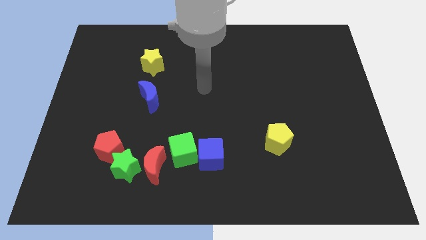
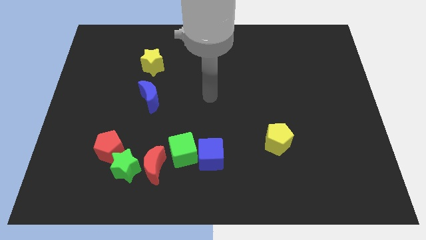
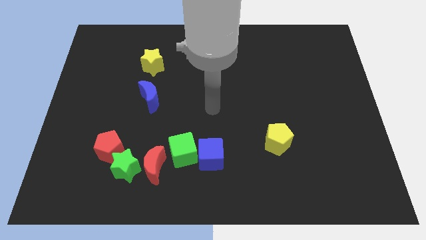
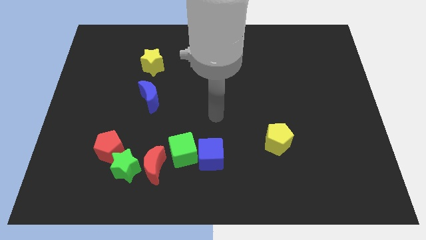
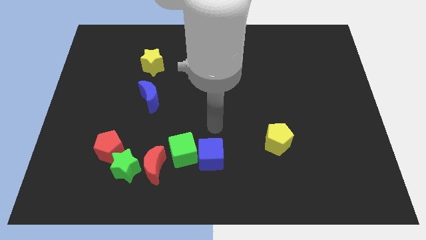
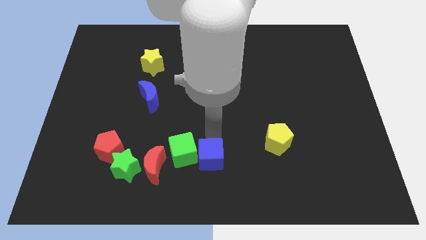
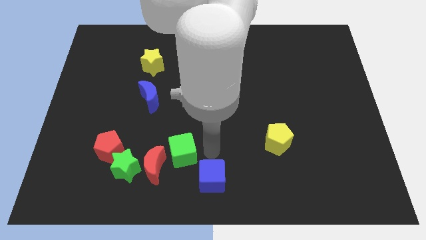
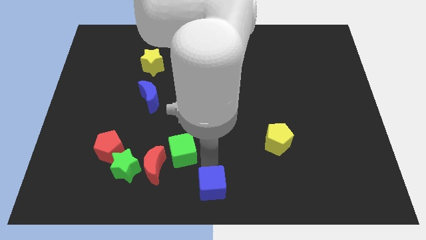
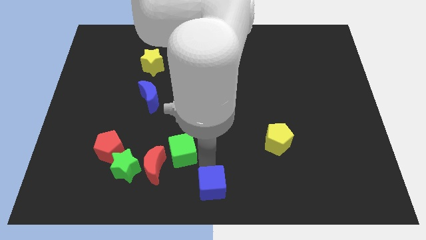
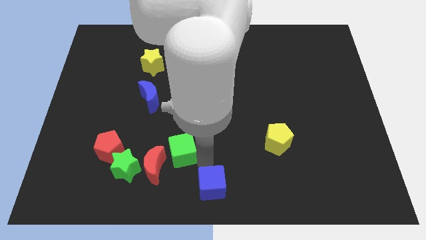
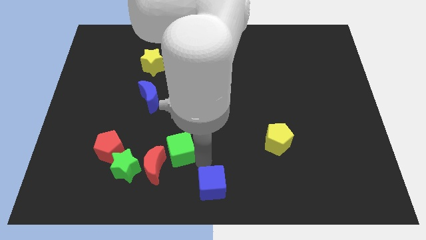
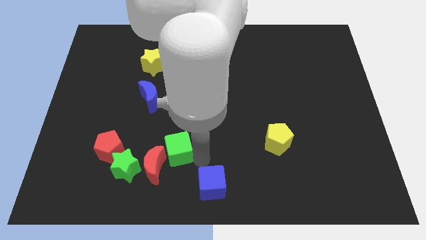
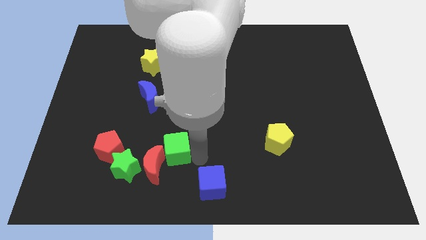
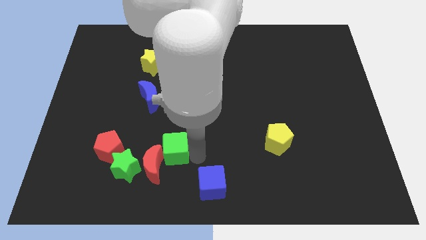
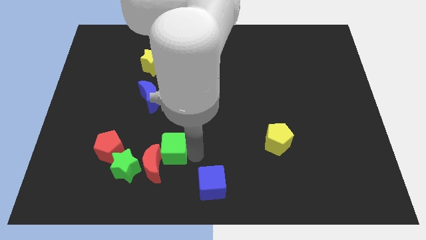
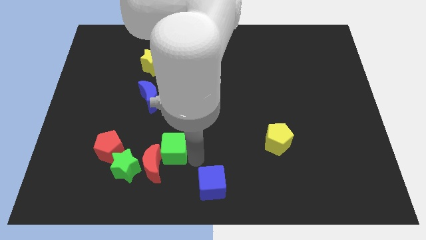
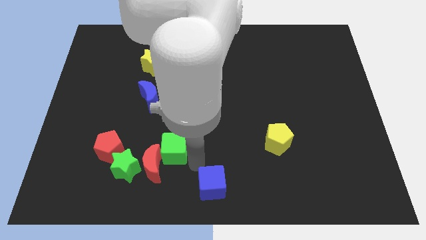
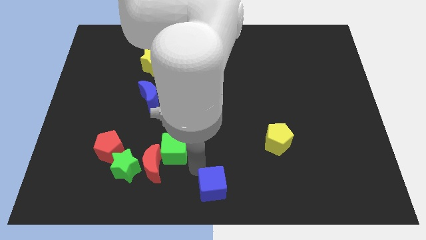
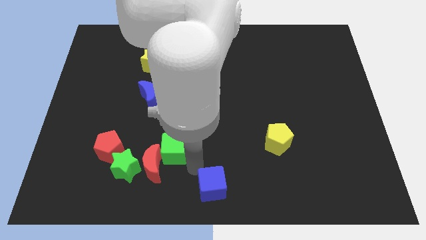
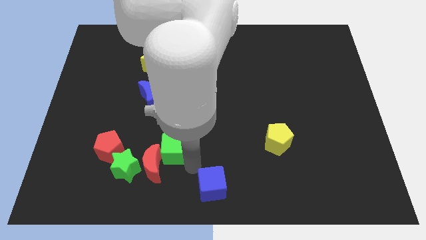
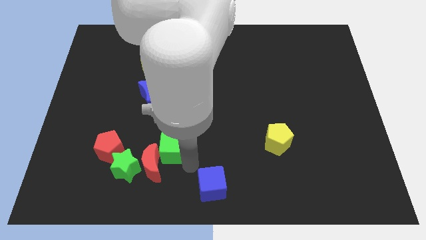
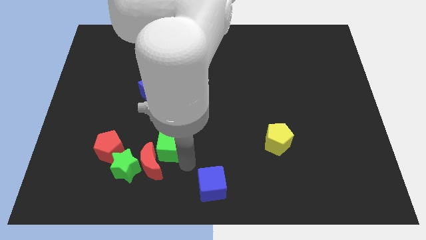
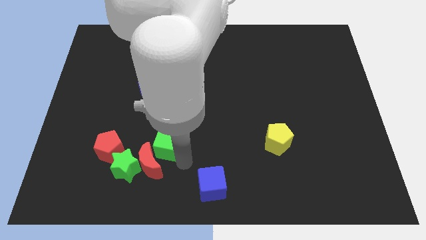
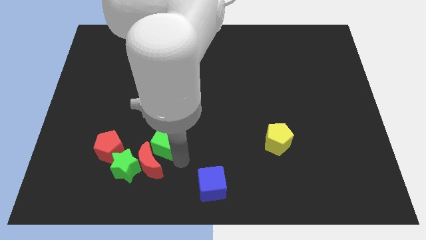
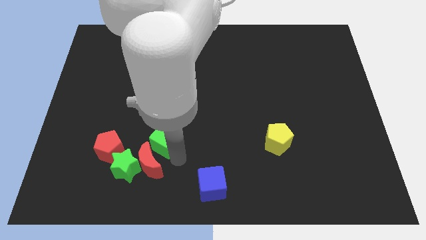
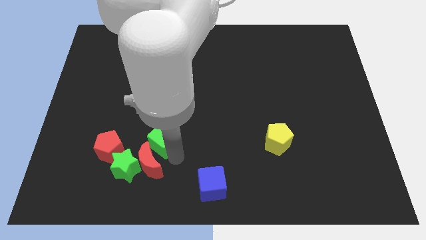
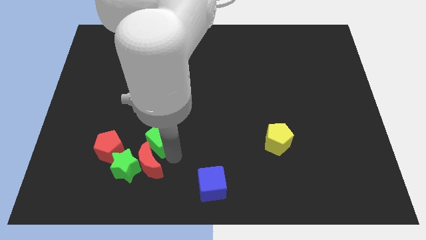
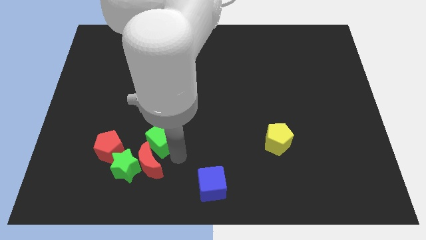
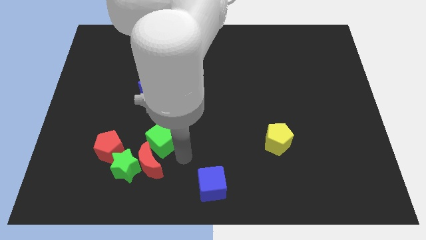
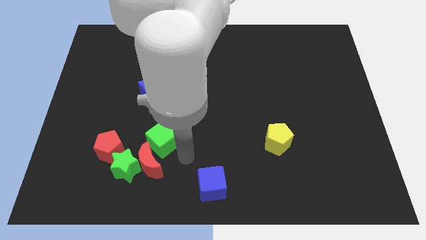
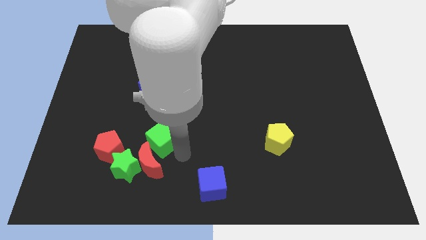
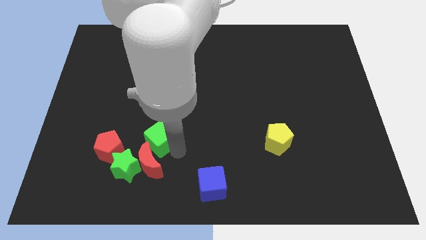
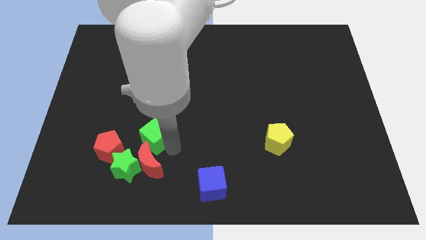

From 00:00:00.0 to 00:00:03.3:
move the green cube a bit diagonally upwards and to the left

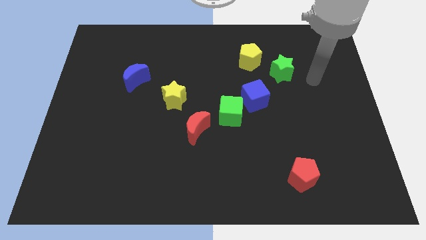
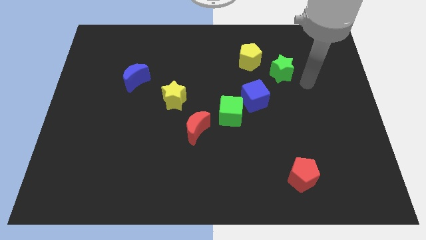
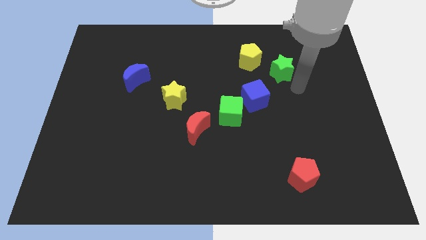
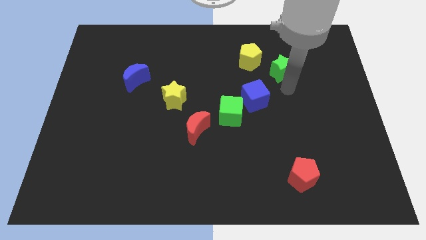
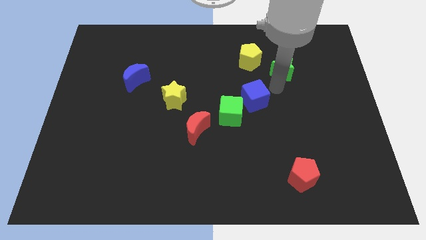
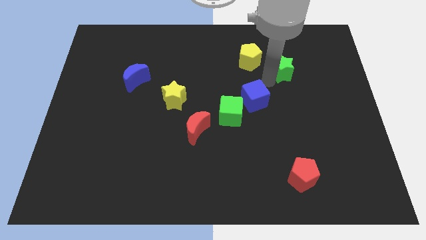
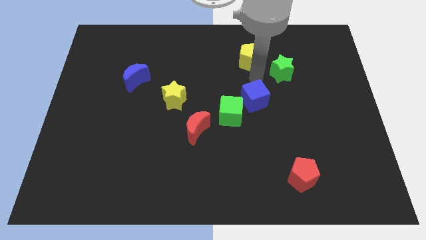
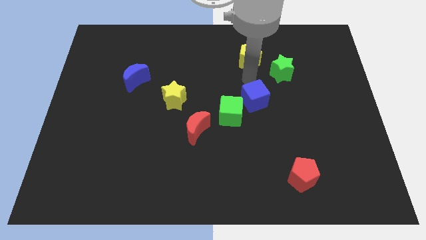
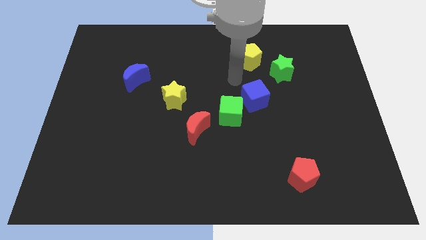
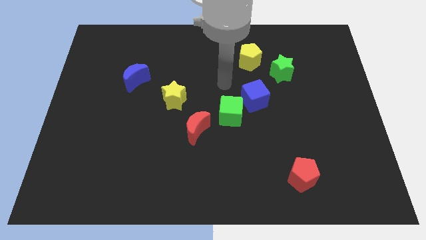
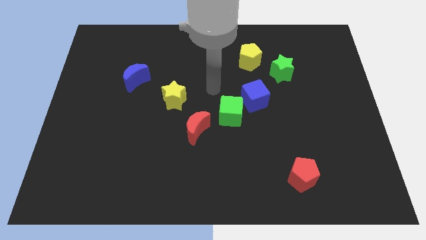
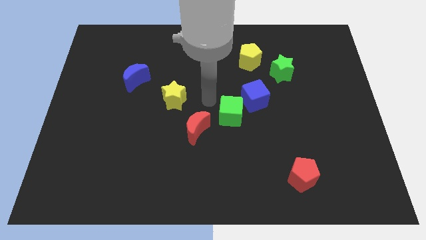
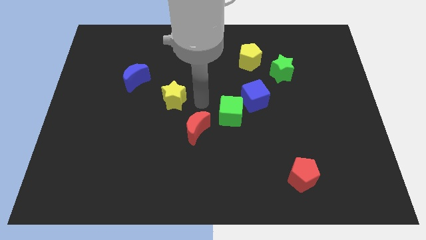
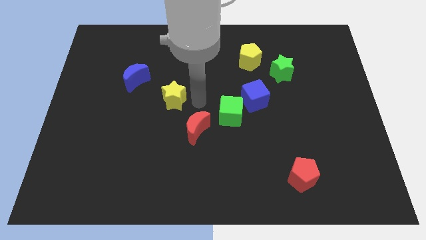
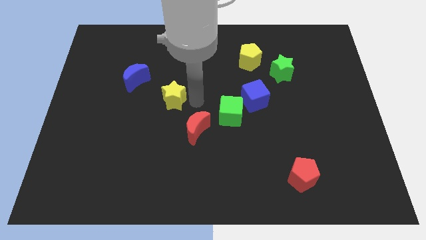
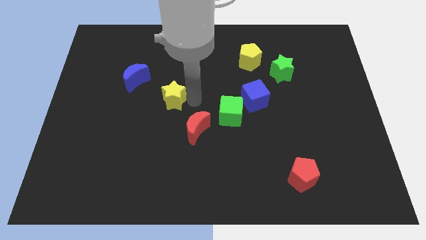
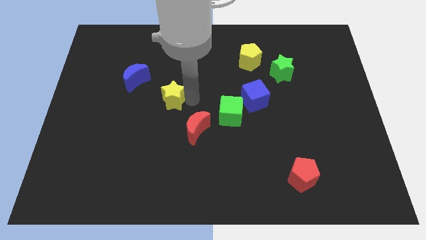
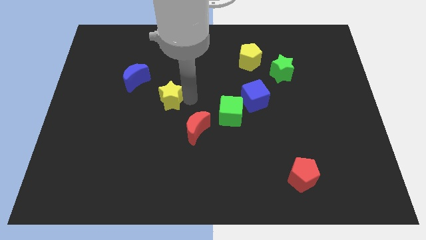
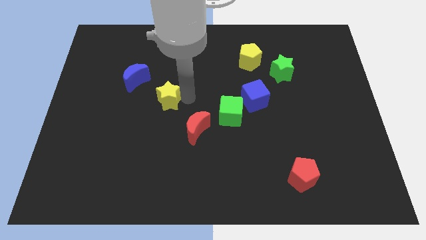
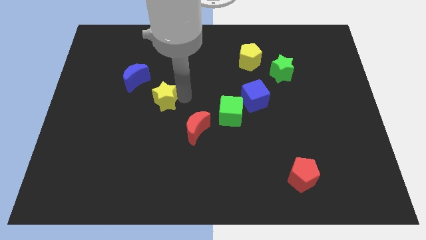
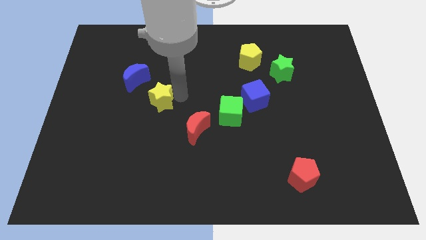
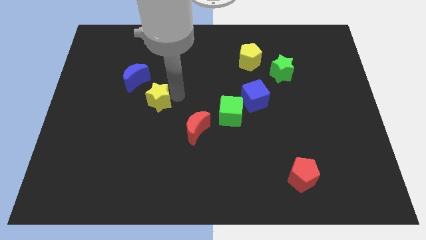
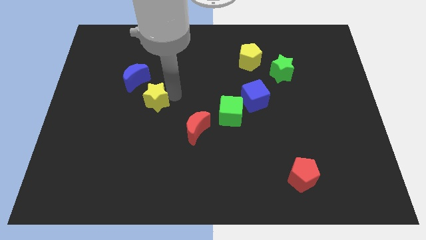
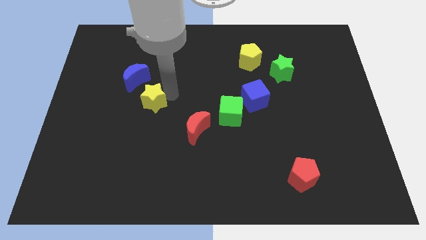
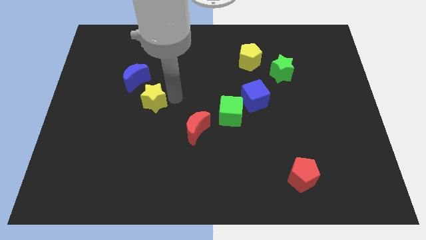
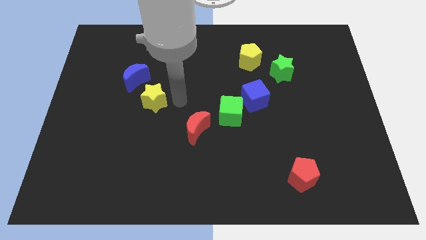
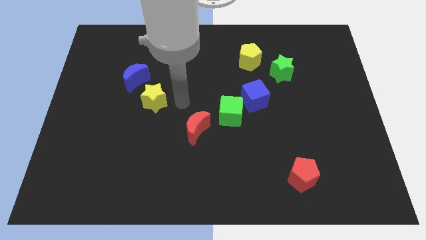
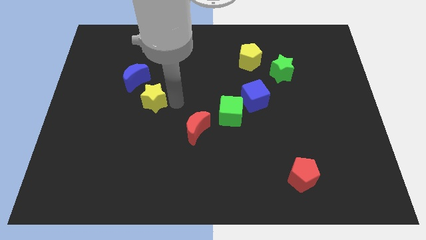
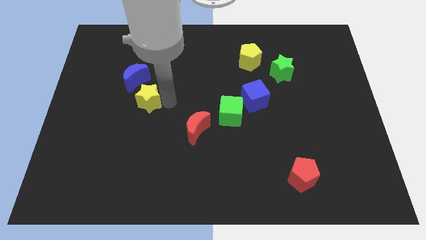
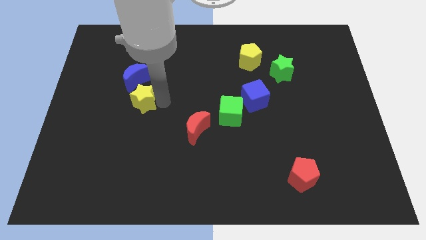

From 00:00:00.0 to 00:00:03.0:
slide the yellow star a bit left

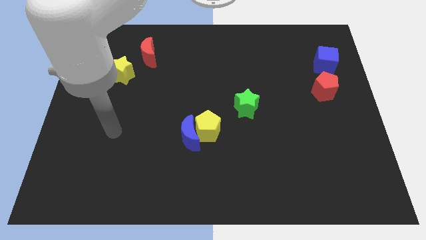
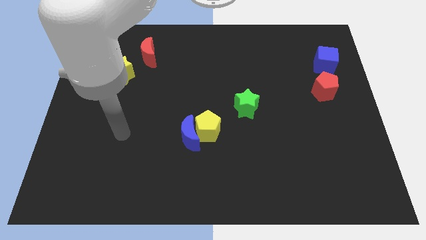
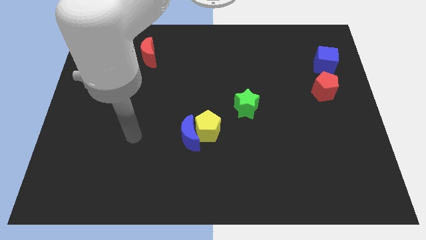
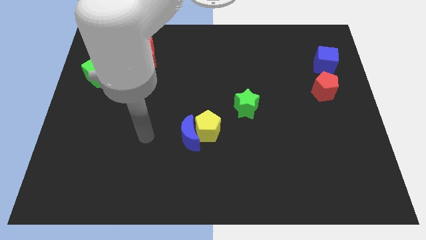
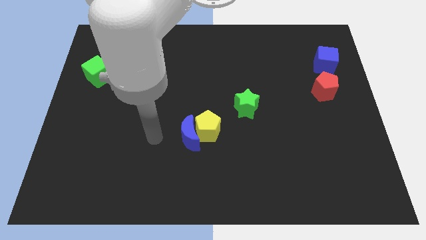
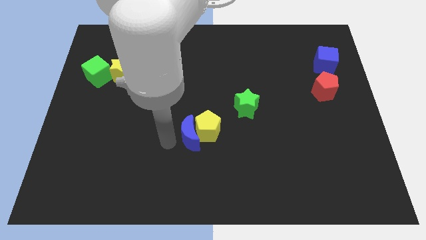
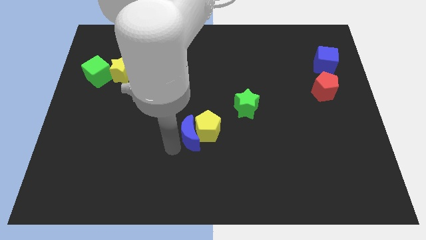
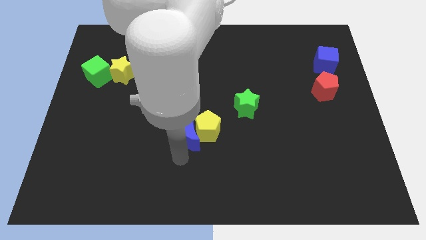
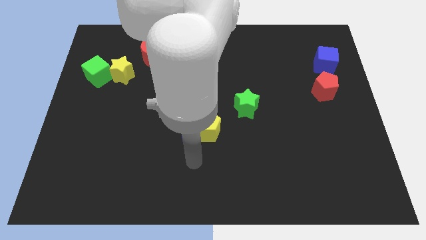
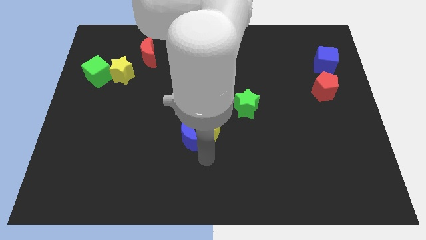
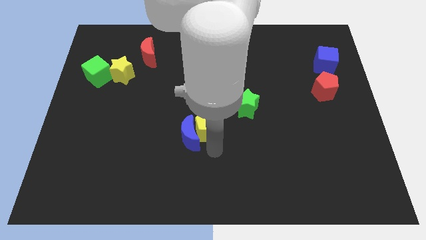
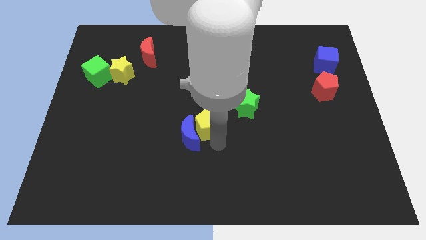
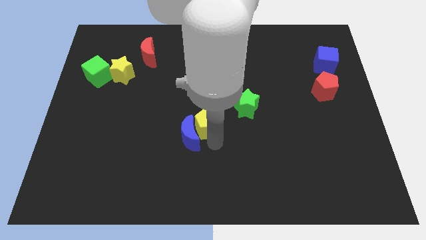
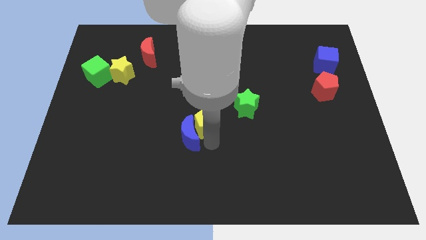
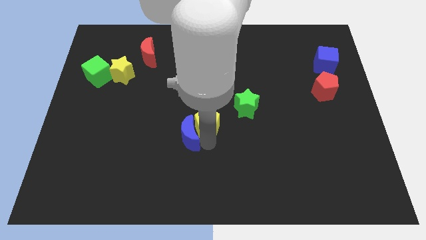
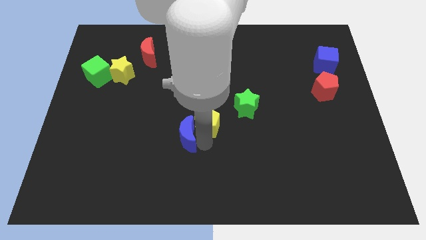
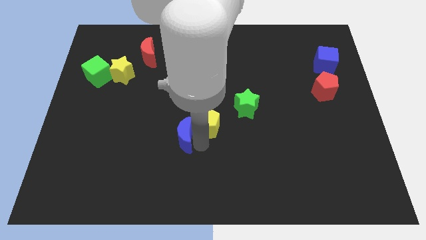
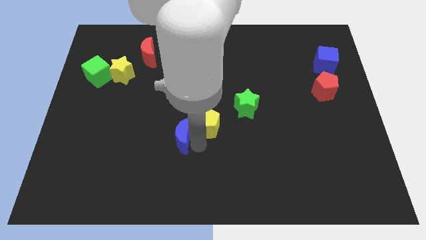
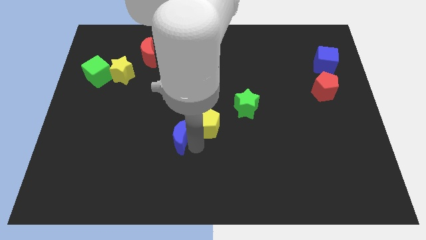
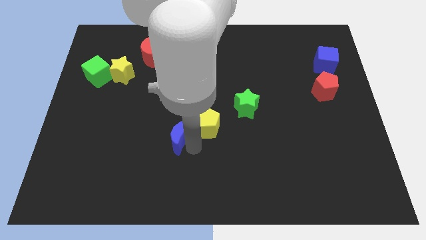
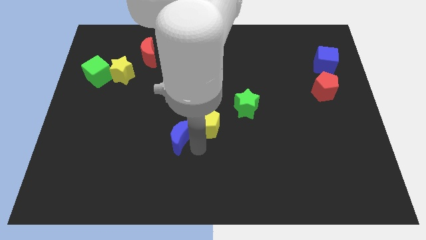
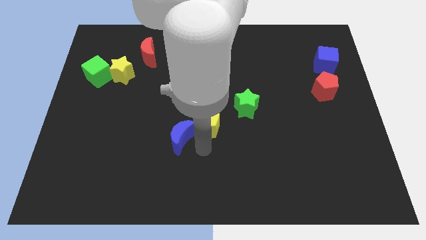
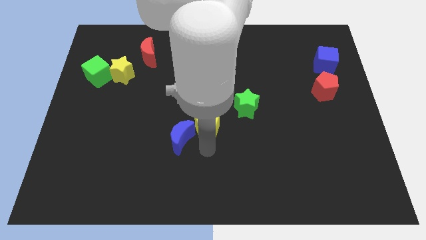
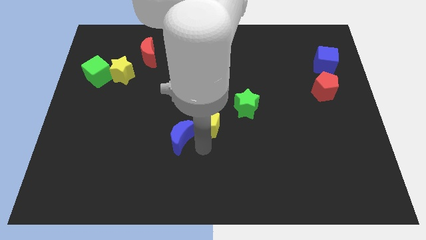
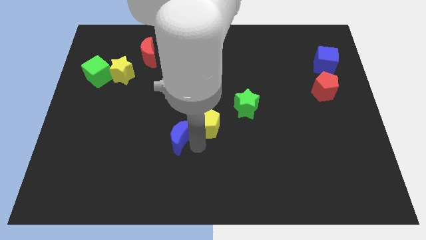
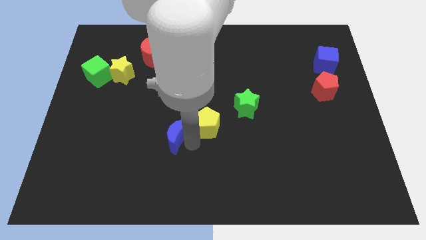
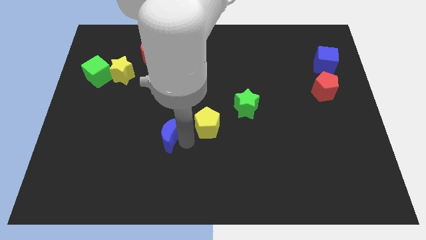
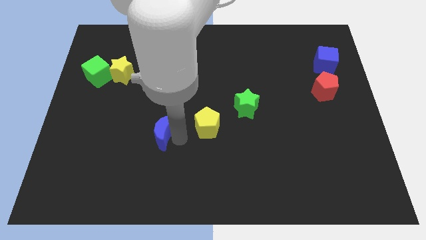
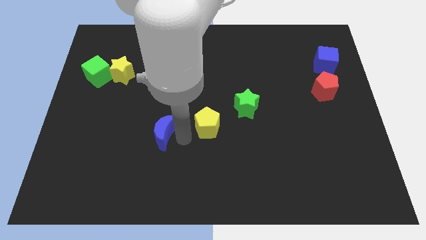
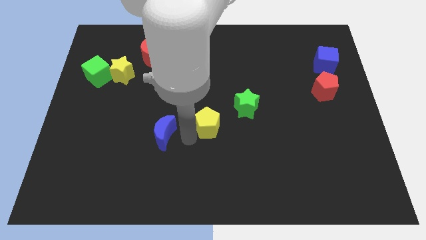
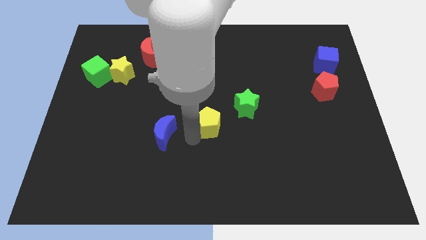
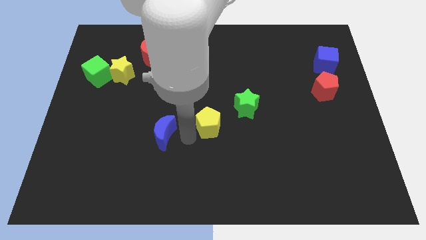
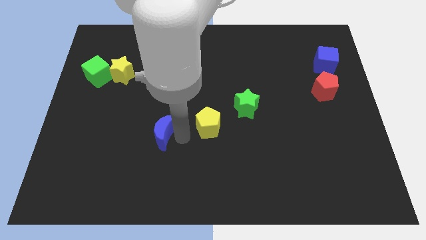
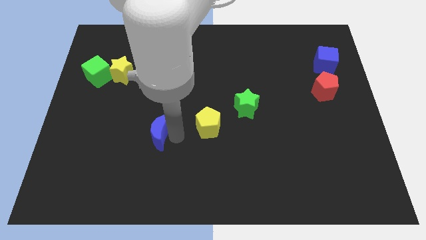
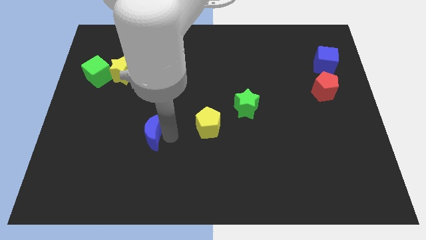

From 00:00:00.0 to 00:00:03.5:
move the blue moon left somewhat
